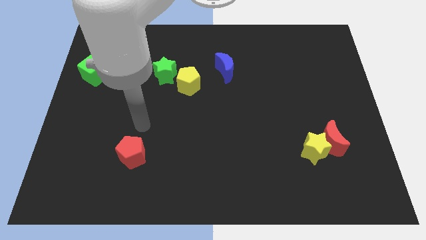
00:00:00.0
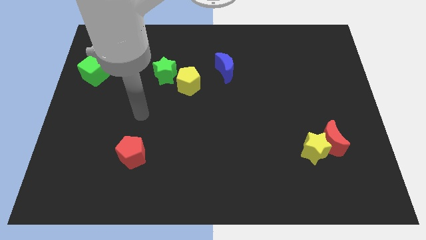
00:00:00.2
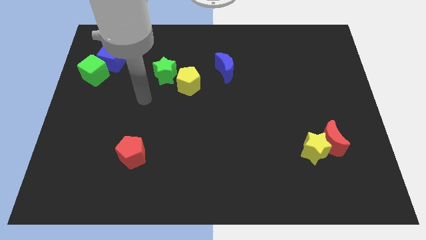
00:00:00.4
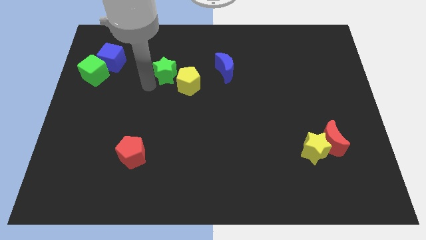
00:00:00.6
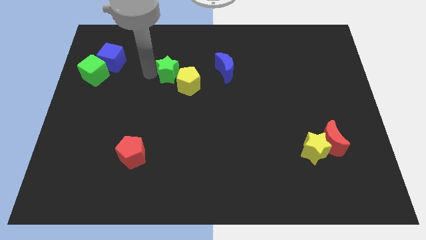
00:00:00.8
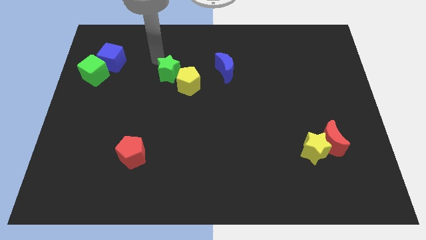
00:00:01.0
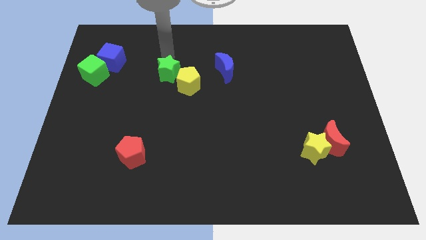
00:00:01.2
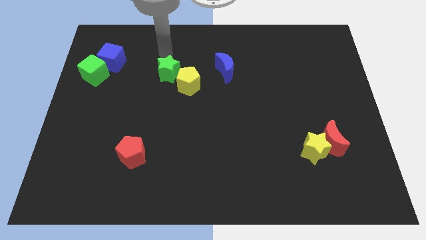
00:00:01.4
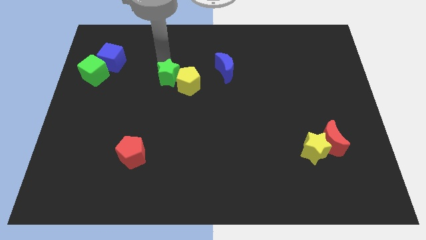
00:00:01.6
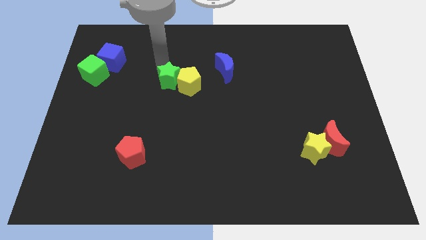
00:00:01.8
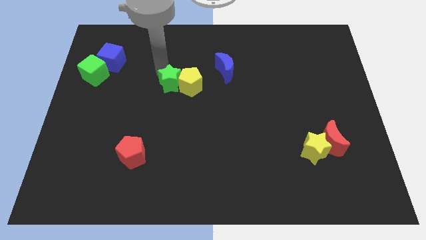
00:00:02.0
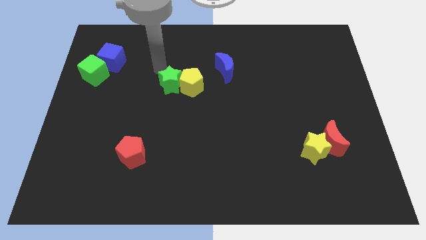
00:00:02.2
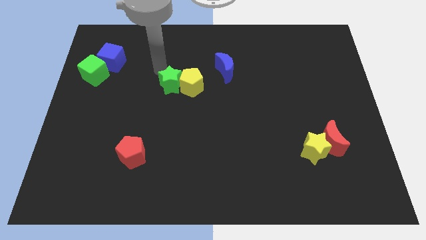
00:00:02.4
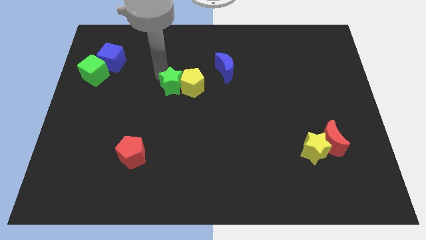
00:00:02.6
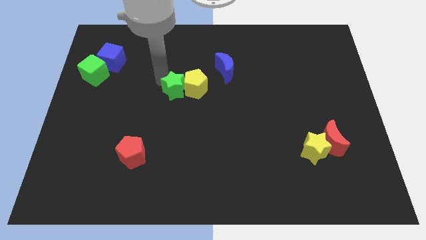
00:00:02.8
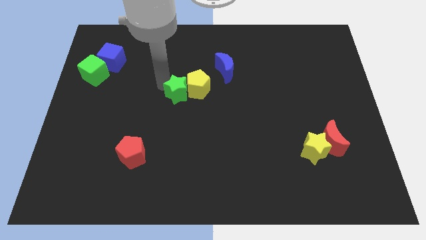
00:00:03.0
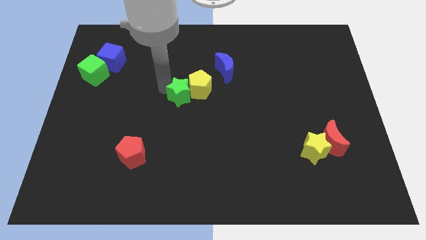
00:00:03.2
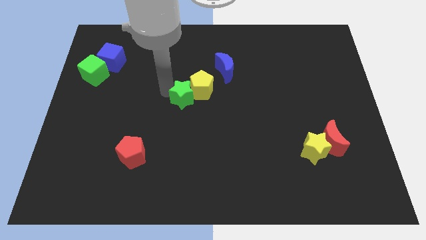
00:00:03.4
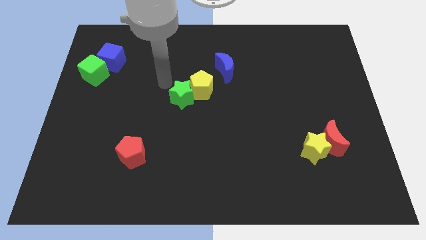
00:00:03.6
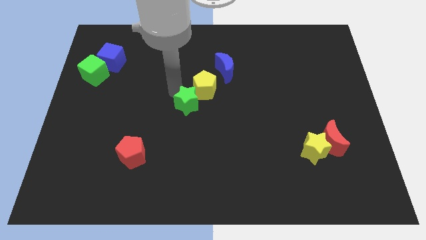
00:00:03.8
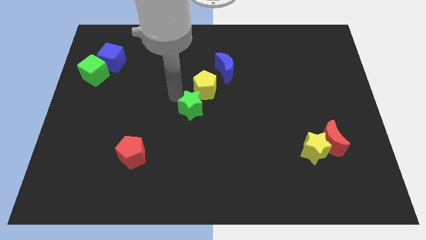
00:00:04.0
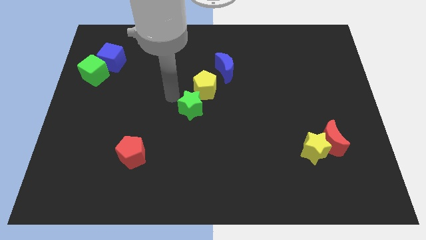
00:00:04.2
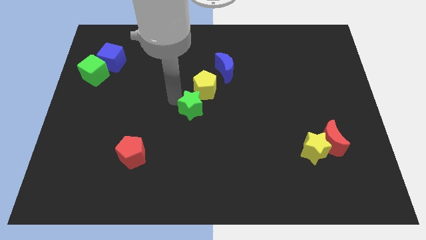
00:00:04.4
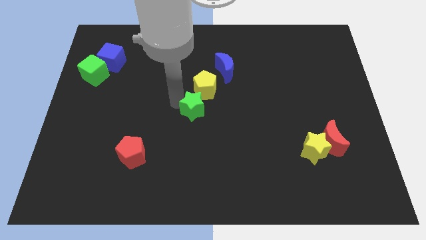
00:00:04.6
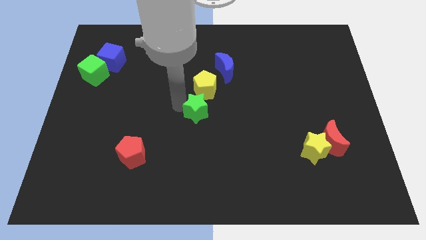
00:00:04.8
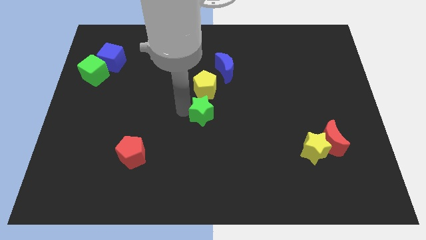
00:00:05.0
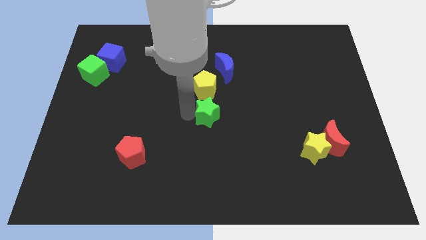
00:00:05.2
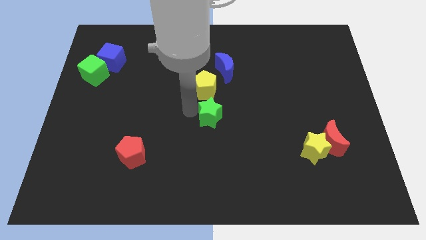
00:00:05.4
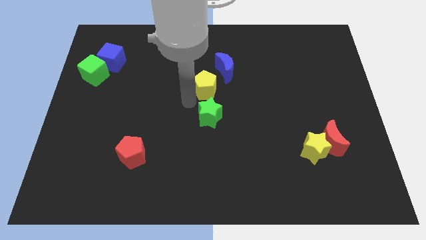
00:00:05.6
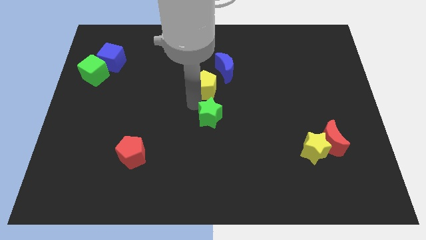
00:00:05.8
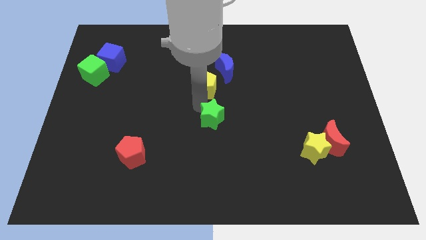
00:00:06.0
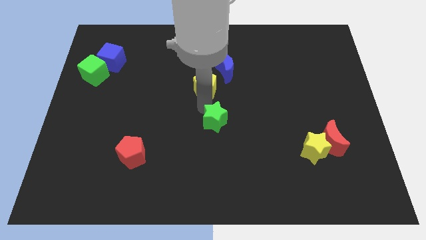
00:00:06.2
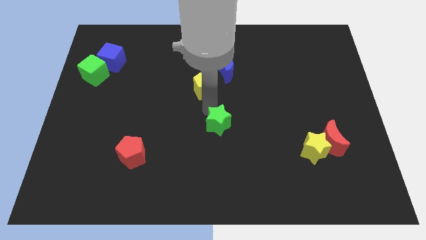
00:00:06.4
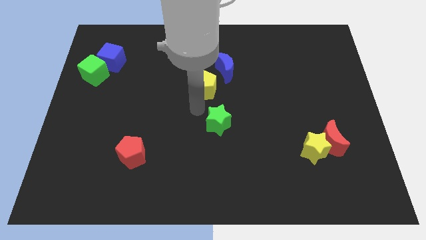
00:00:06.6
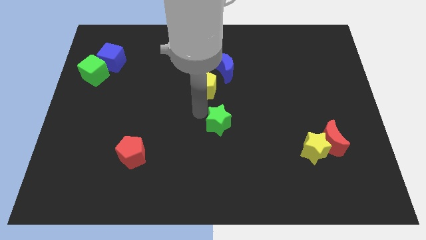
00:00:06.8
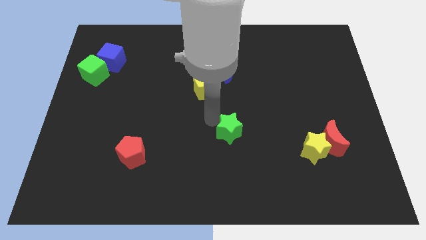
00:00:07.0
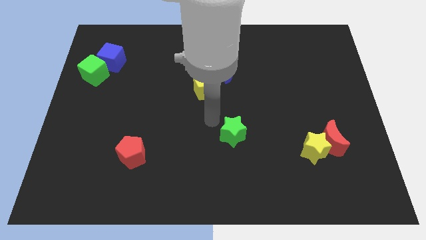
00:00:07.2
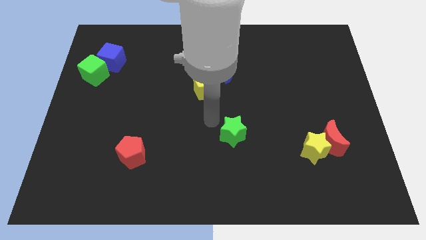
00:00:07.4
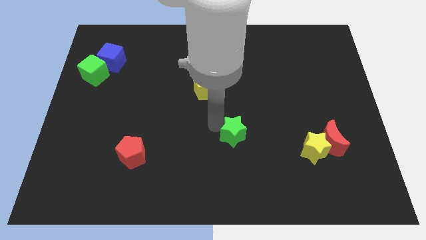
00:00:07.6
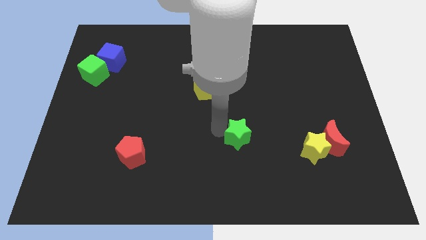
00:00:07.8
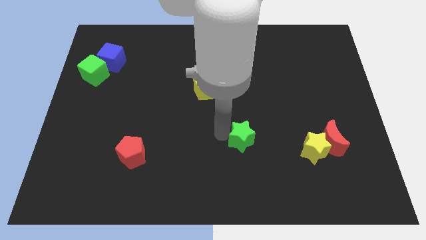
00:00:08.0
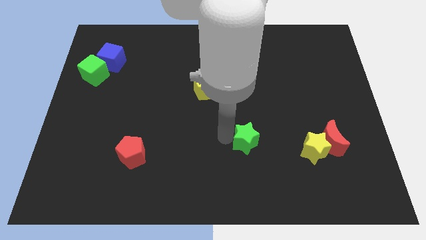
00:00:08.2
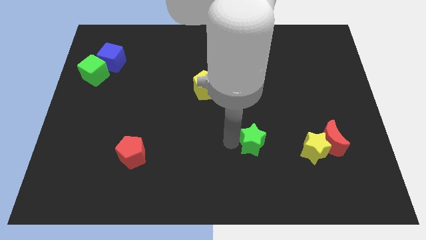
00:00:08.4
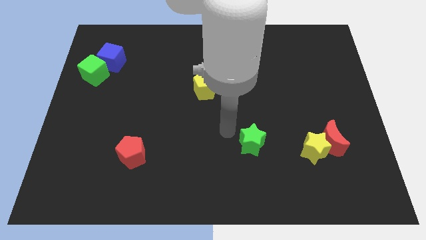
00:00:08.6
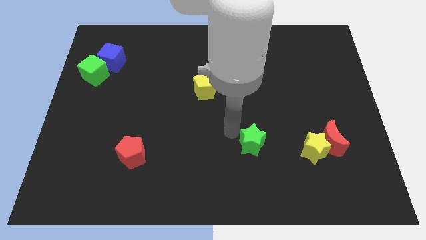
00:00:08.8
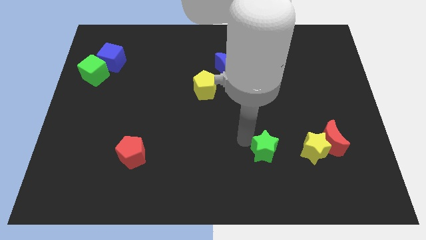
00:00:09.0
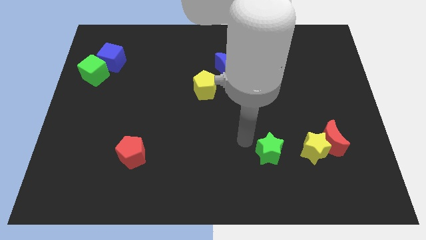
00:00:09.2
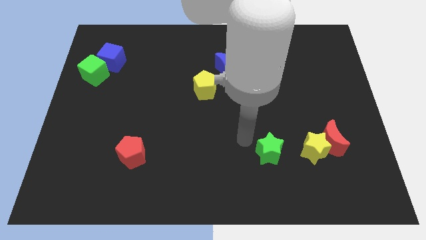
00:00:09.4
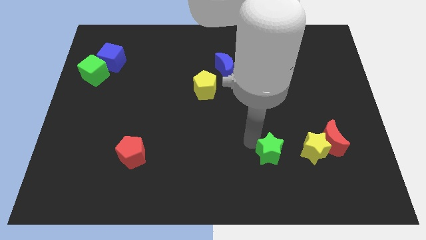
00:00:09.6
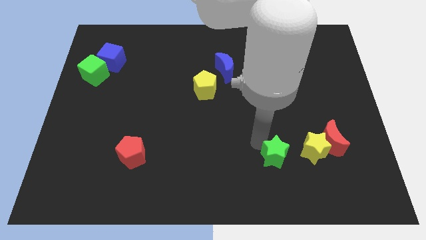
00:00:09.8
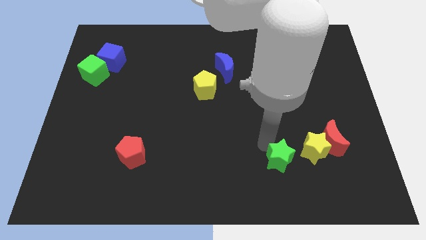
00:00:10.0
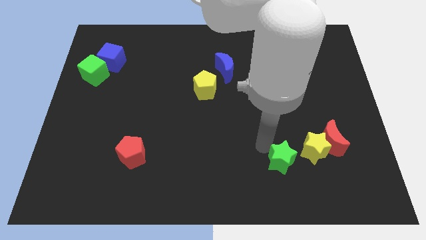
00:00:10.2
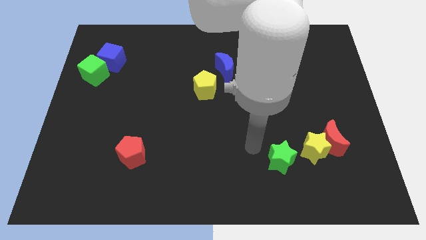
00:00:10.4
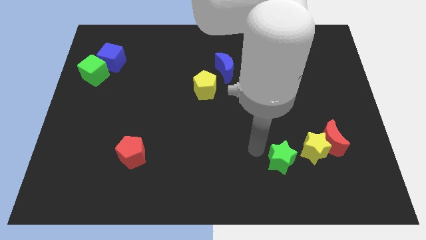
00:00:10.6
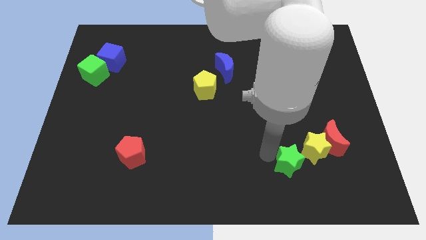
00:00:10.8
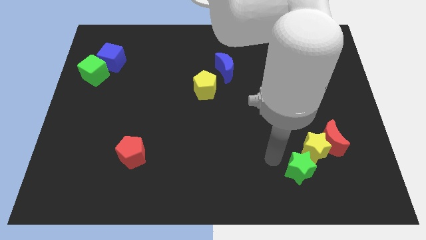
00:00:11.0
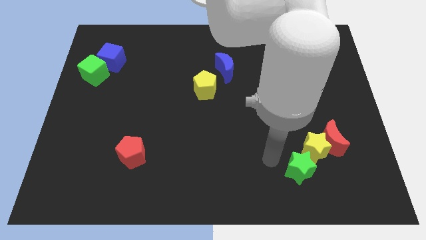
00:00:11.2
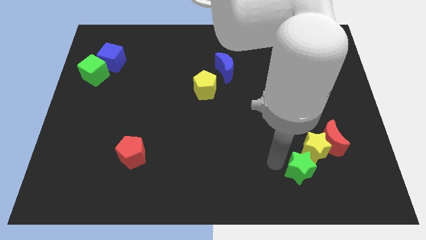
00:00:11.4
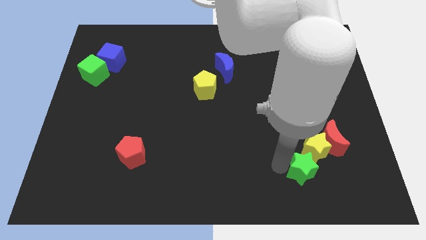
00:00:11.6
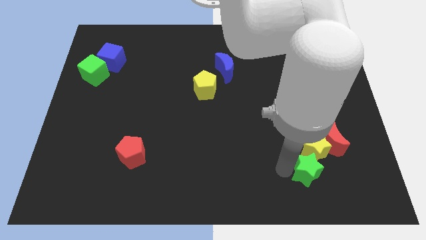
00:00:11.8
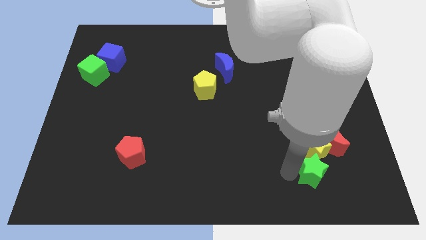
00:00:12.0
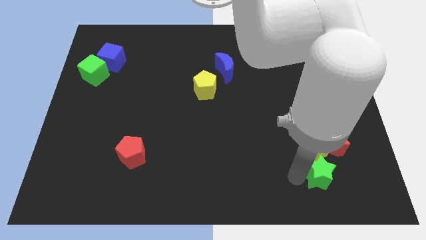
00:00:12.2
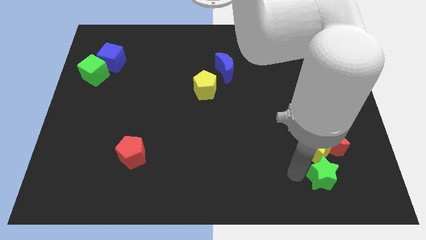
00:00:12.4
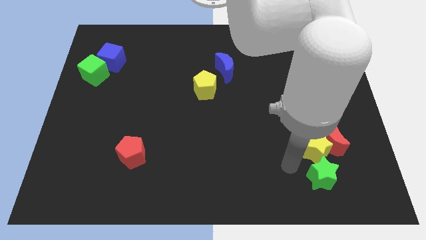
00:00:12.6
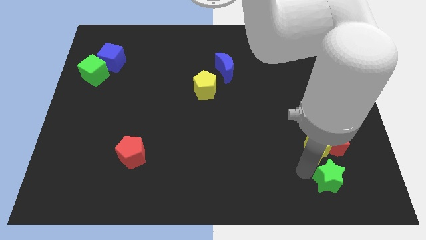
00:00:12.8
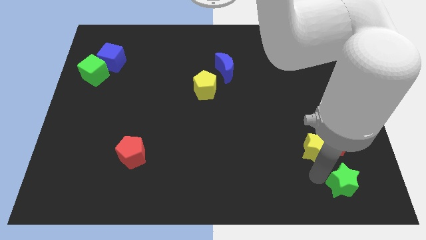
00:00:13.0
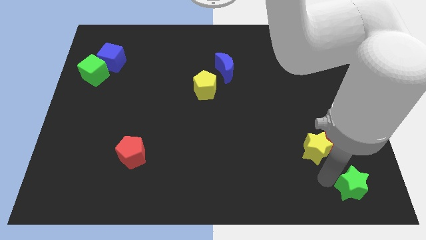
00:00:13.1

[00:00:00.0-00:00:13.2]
push the green star to the lower right corner
